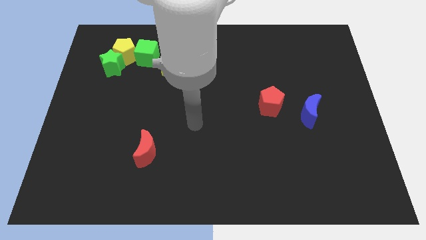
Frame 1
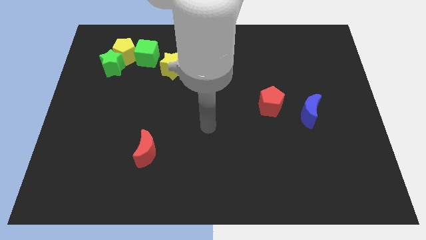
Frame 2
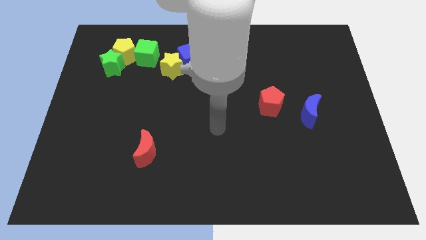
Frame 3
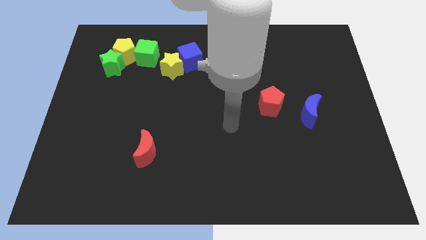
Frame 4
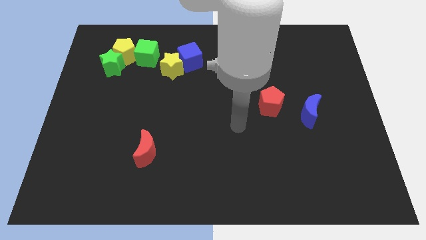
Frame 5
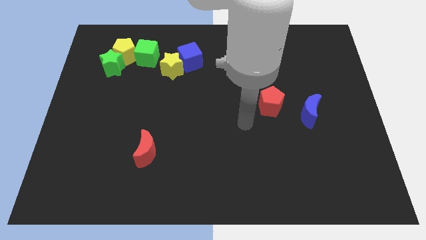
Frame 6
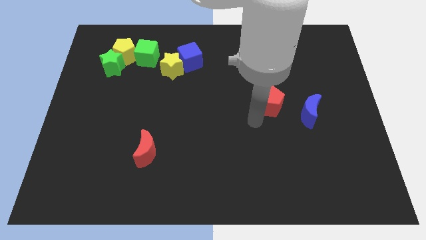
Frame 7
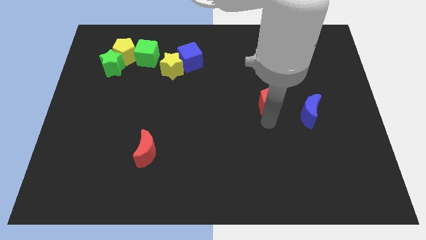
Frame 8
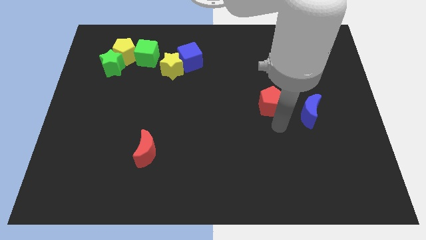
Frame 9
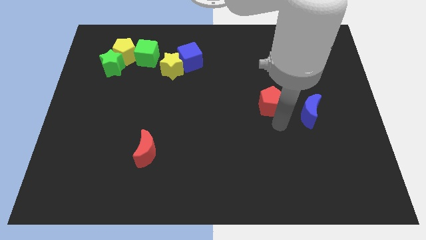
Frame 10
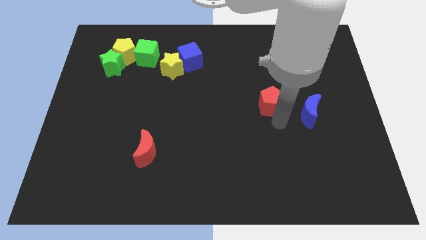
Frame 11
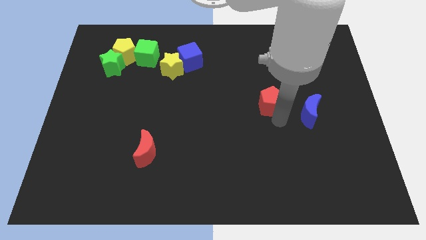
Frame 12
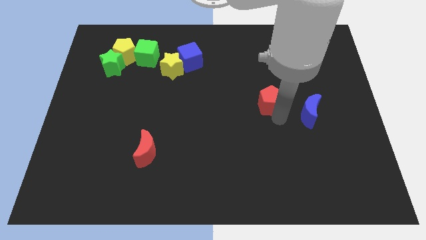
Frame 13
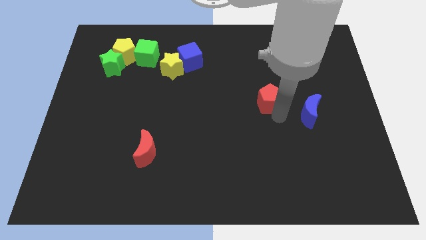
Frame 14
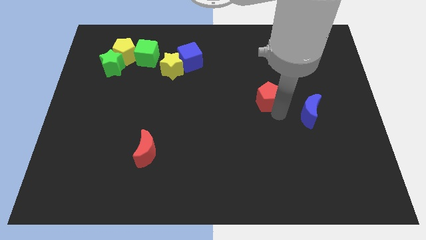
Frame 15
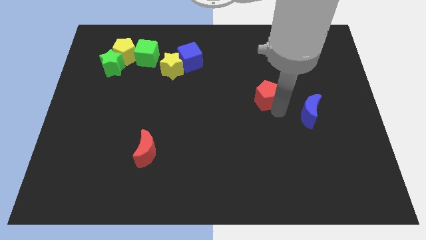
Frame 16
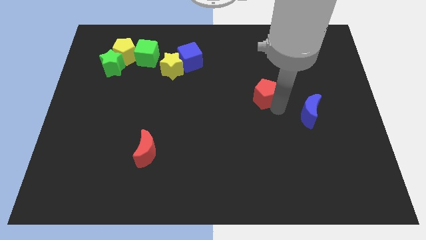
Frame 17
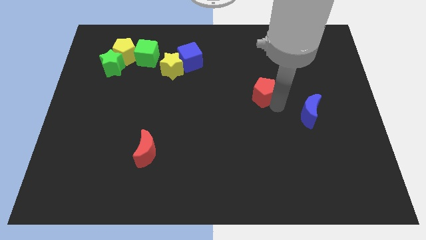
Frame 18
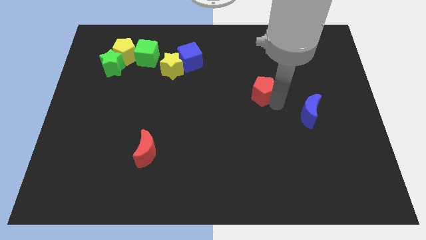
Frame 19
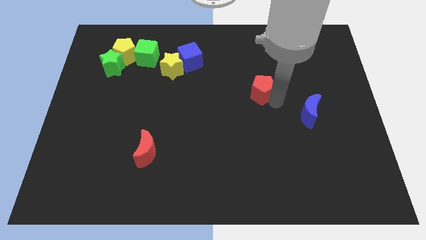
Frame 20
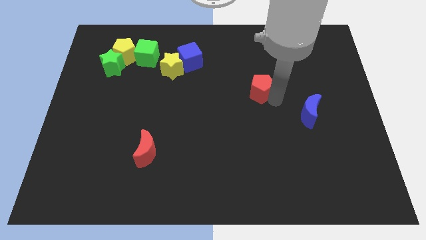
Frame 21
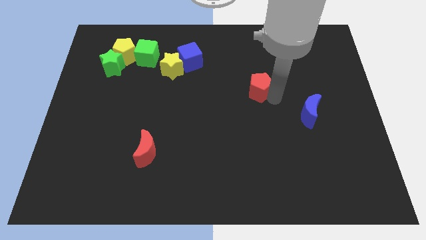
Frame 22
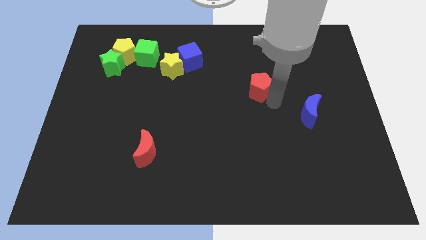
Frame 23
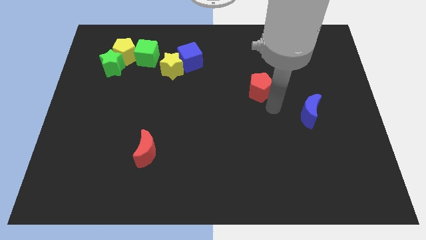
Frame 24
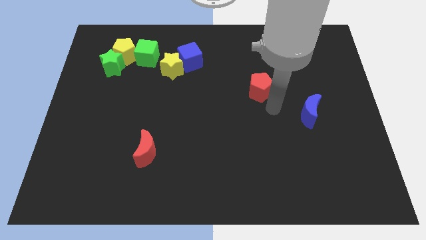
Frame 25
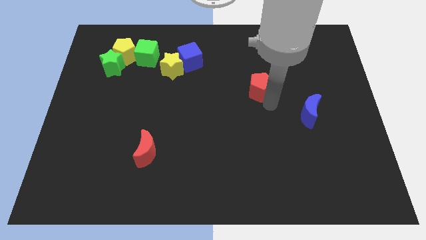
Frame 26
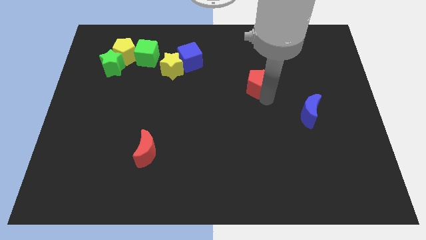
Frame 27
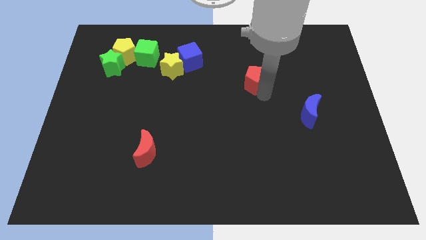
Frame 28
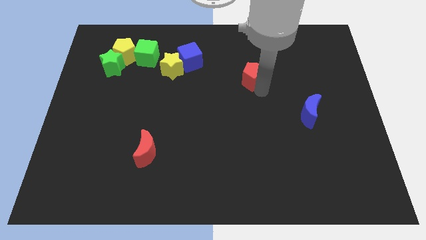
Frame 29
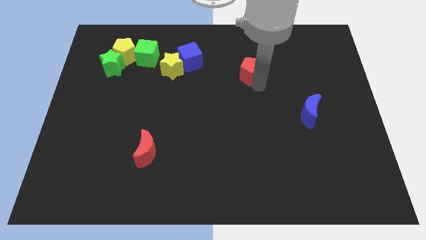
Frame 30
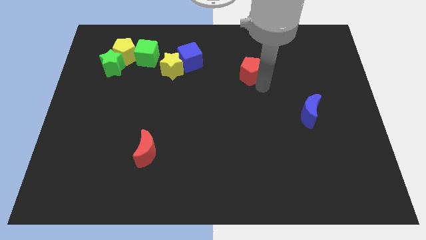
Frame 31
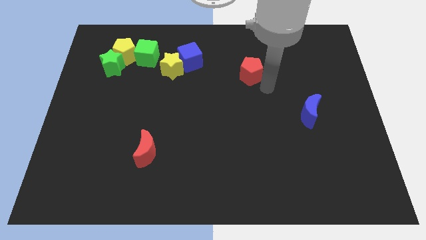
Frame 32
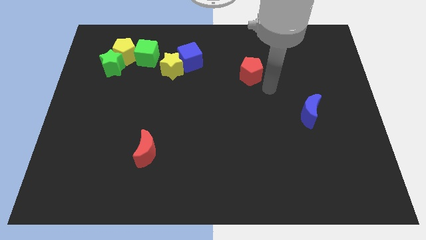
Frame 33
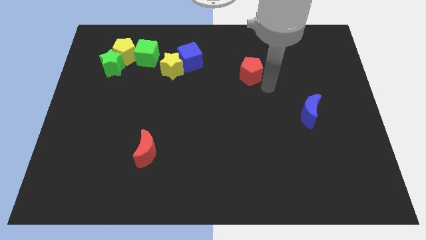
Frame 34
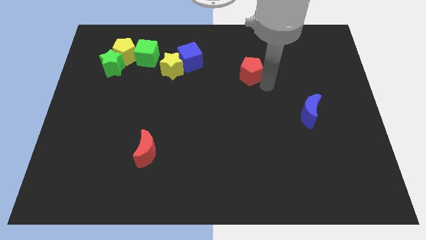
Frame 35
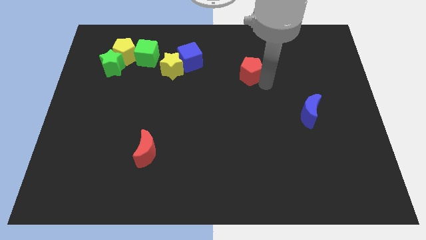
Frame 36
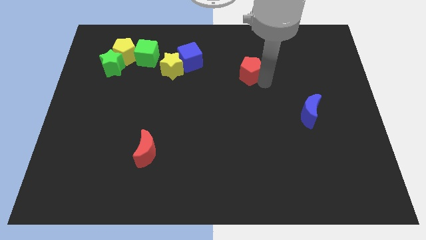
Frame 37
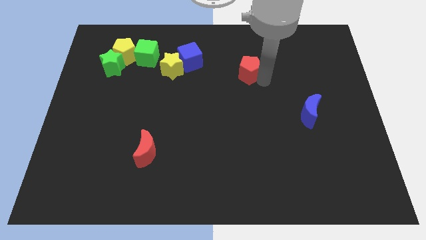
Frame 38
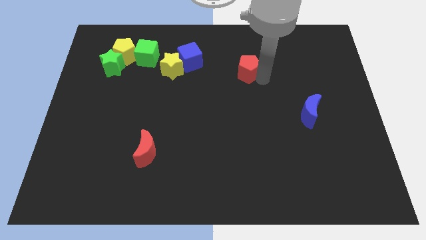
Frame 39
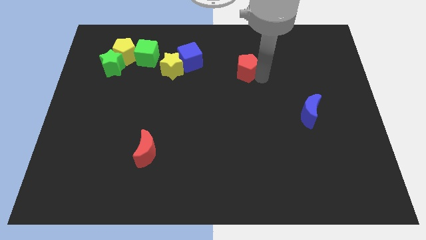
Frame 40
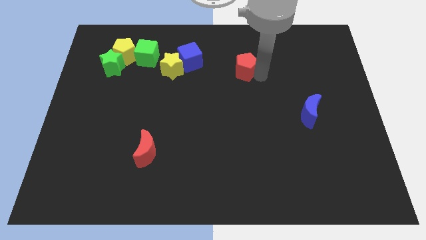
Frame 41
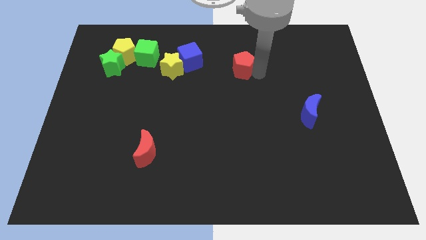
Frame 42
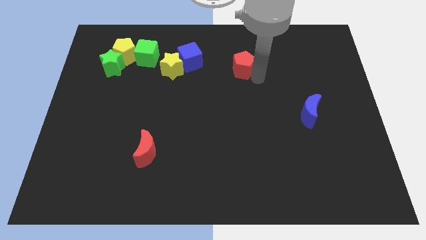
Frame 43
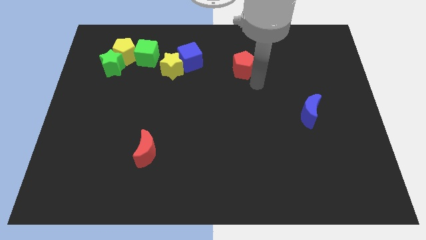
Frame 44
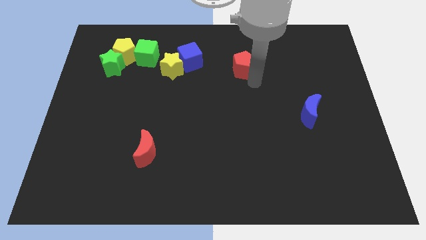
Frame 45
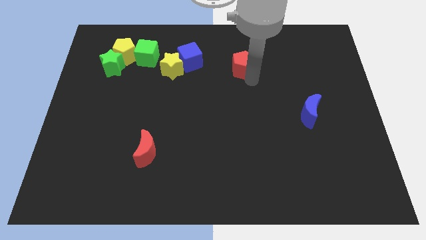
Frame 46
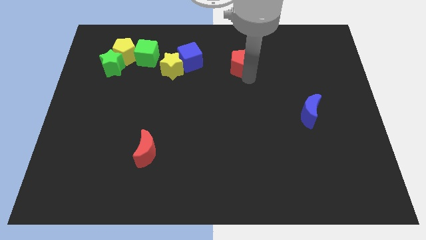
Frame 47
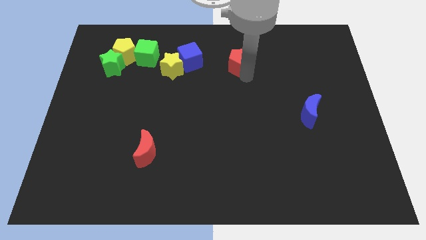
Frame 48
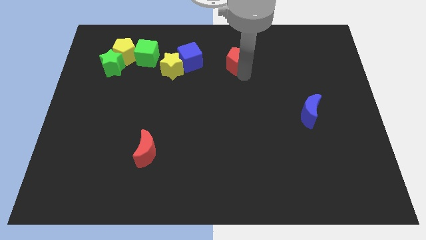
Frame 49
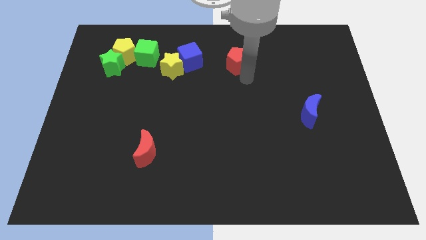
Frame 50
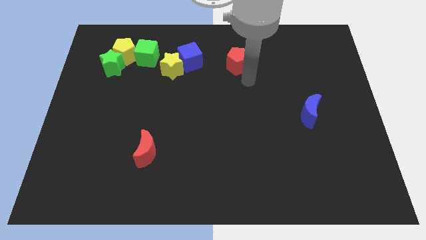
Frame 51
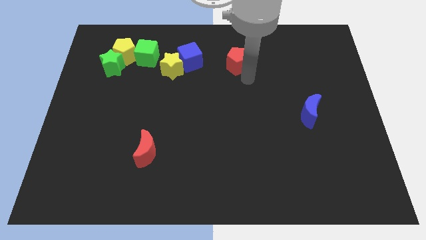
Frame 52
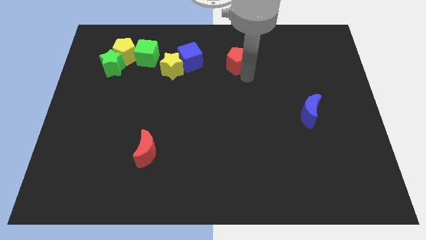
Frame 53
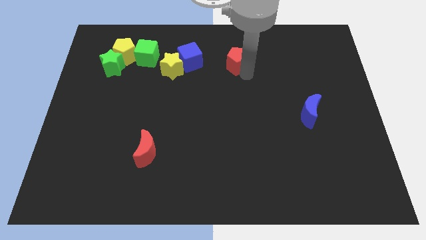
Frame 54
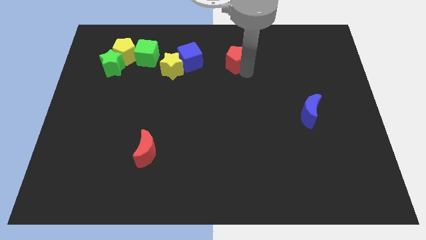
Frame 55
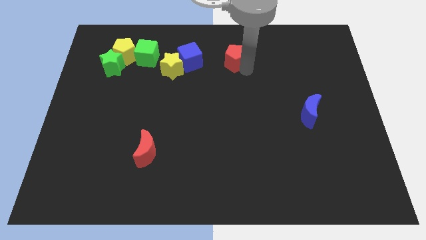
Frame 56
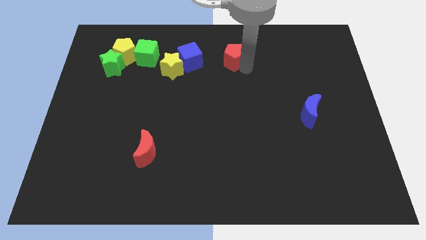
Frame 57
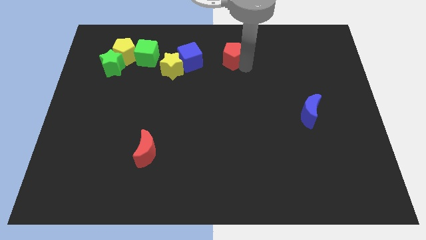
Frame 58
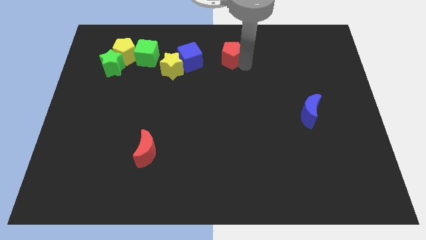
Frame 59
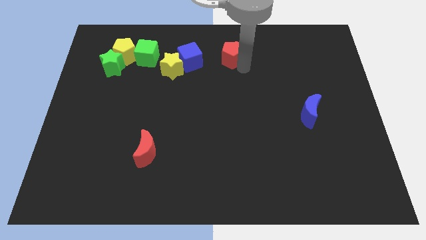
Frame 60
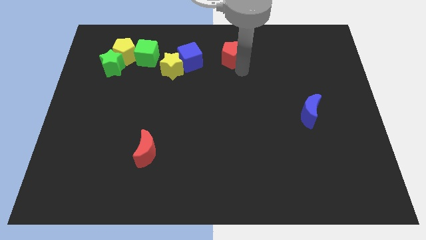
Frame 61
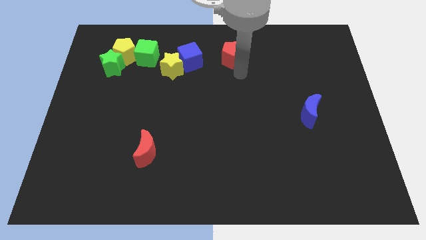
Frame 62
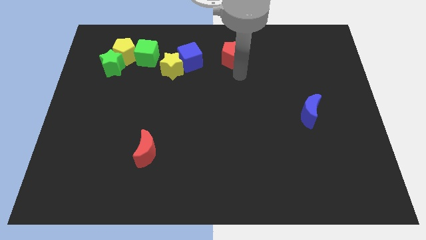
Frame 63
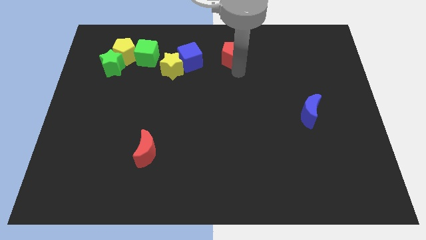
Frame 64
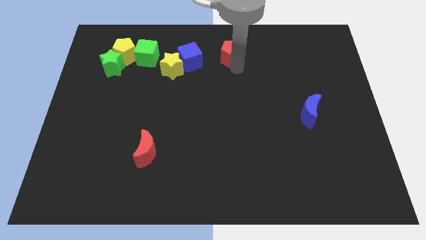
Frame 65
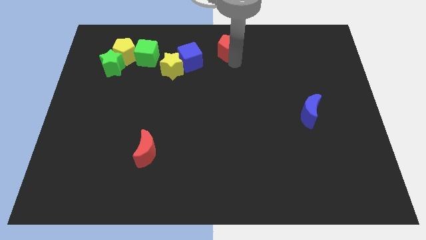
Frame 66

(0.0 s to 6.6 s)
slide the red pentagon to the top side

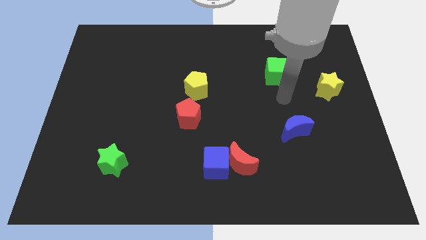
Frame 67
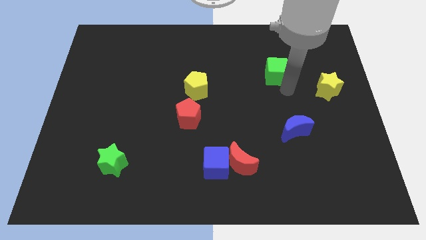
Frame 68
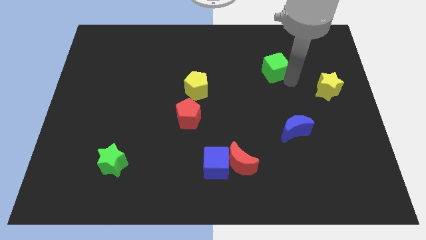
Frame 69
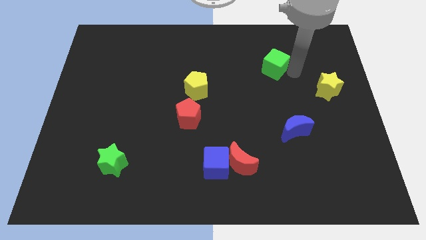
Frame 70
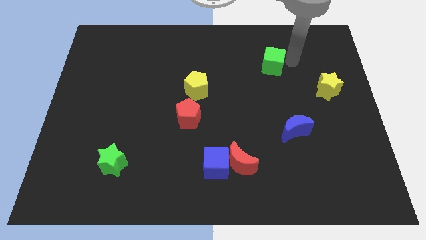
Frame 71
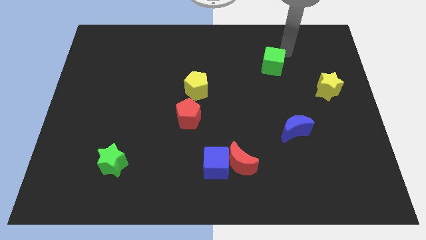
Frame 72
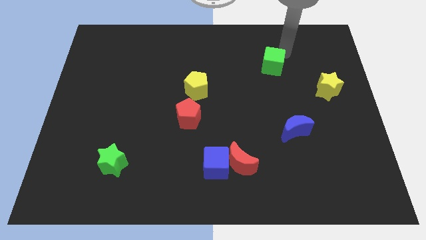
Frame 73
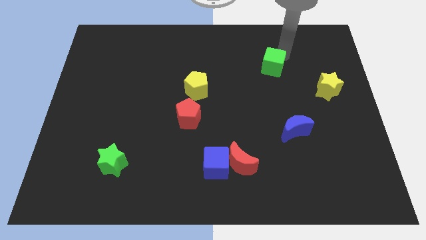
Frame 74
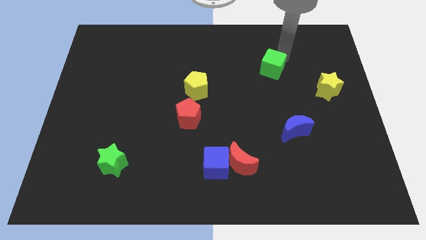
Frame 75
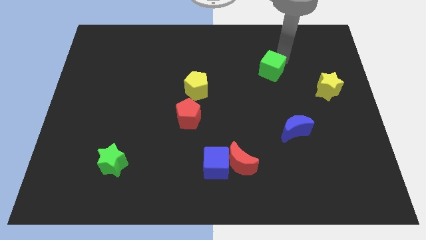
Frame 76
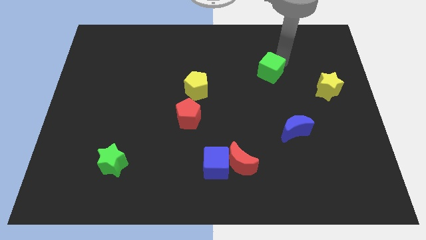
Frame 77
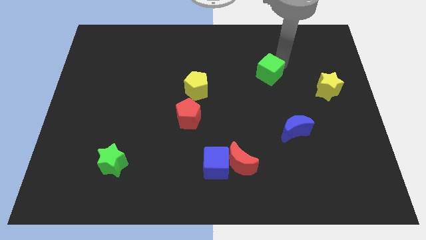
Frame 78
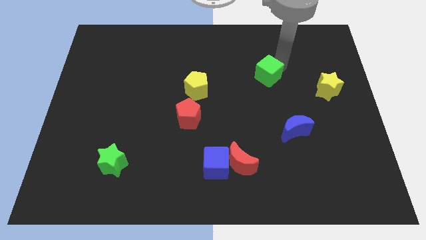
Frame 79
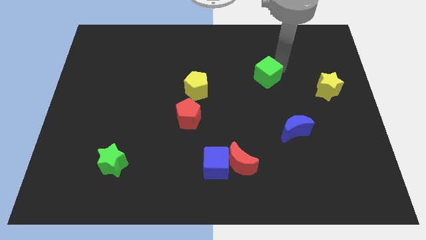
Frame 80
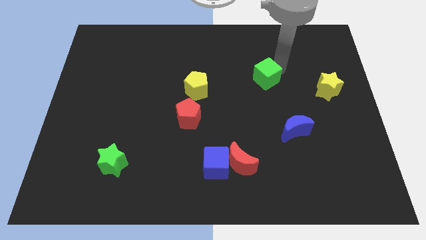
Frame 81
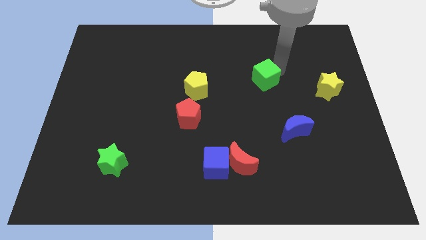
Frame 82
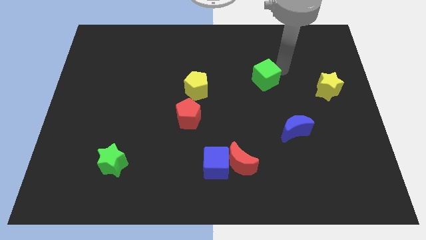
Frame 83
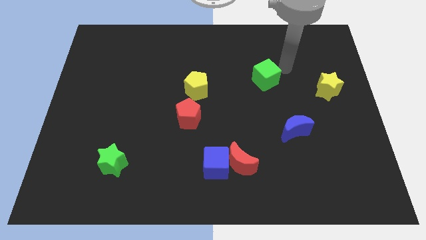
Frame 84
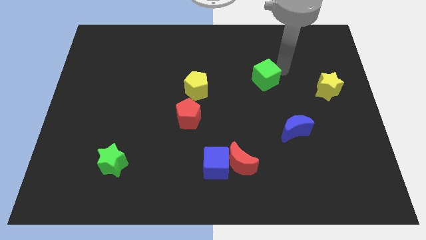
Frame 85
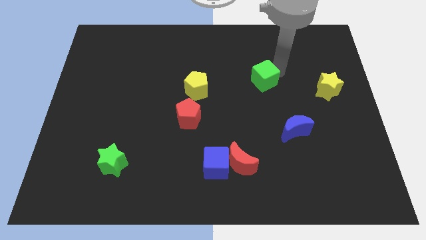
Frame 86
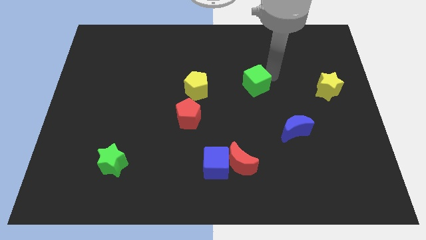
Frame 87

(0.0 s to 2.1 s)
move the green cube to the center of the board
